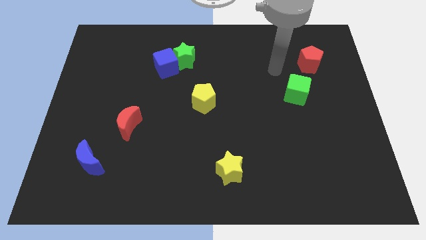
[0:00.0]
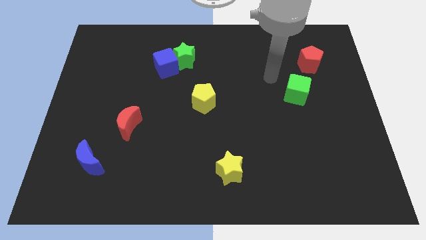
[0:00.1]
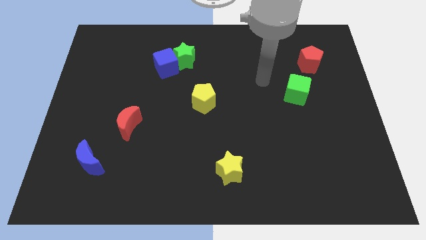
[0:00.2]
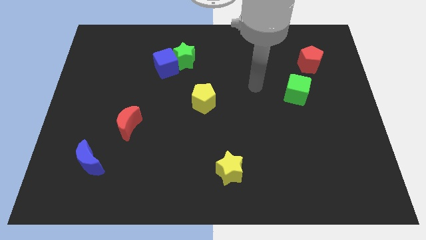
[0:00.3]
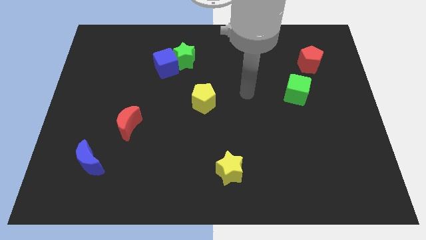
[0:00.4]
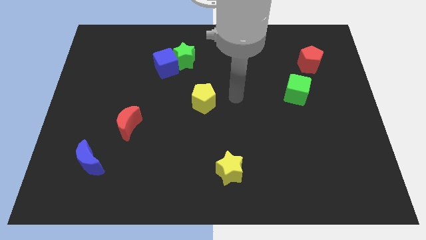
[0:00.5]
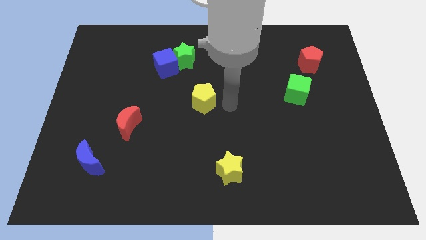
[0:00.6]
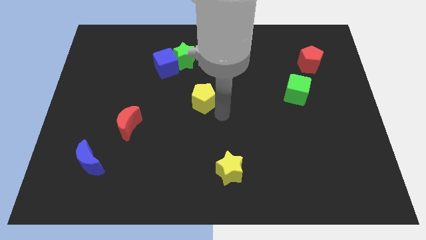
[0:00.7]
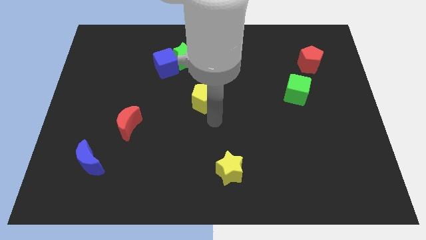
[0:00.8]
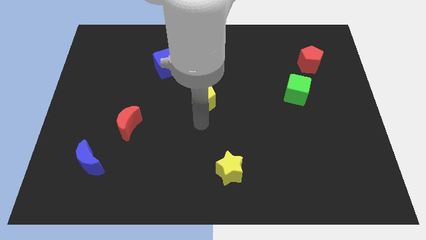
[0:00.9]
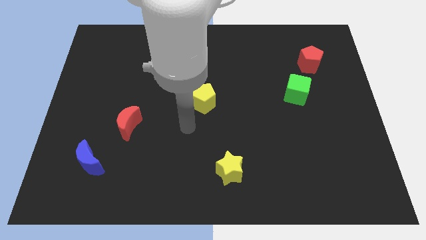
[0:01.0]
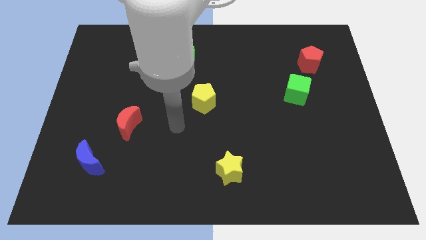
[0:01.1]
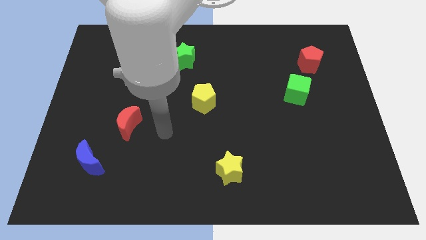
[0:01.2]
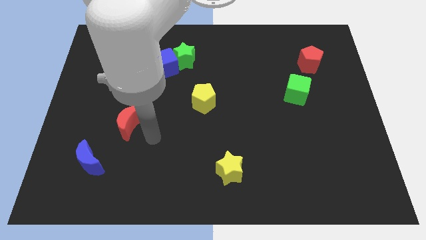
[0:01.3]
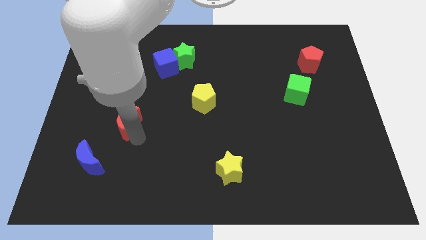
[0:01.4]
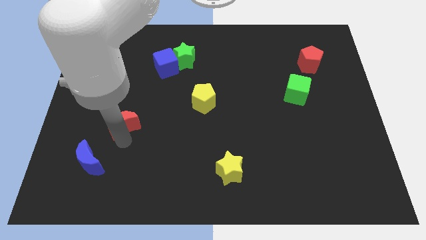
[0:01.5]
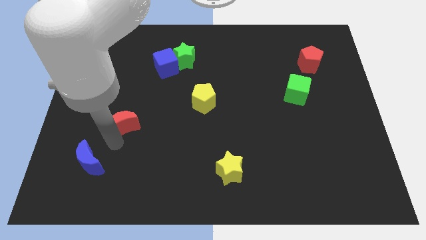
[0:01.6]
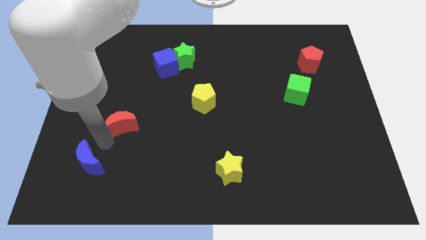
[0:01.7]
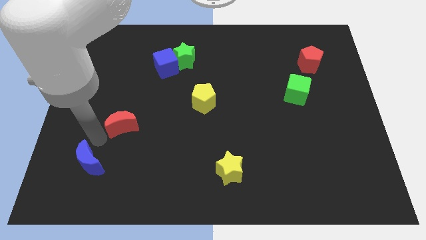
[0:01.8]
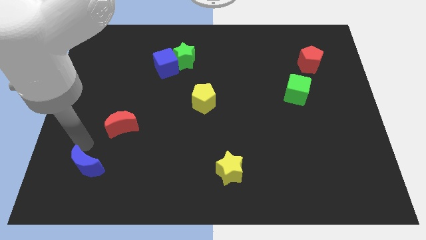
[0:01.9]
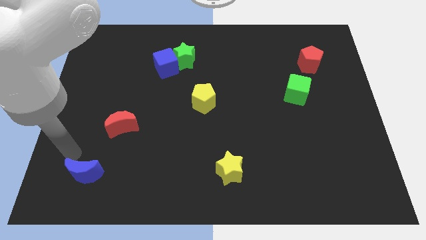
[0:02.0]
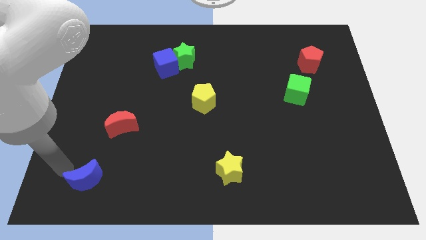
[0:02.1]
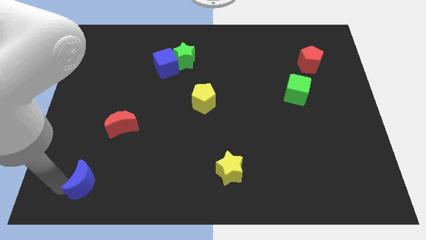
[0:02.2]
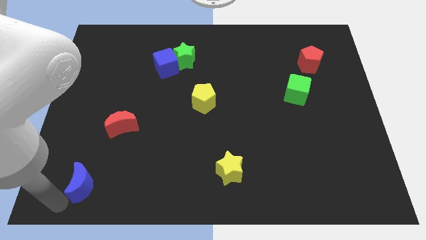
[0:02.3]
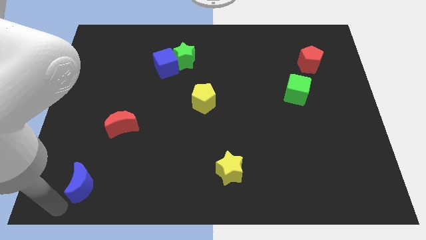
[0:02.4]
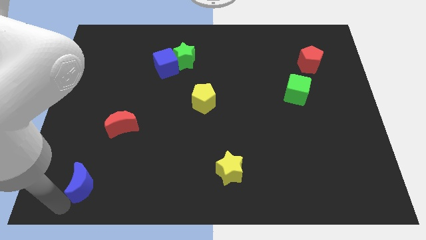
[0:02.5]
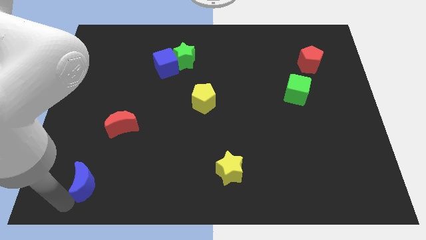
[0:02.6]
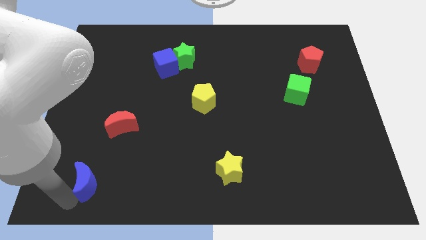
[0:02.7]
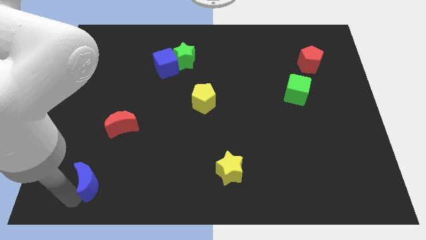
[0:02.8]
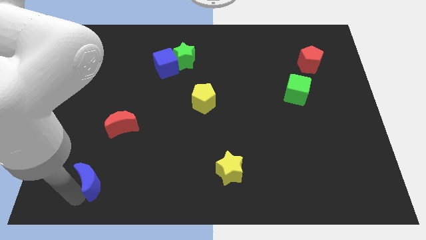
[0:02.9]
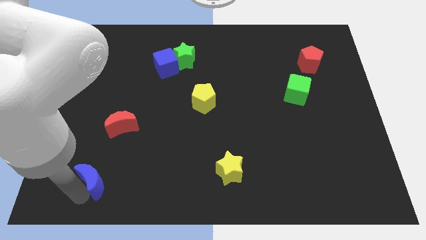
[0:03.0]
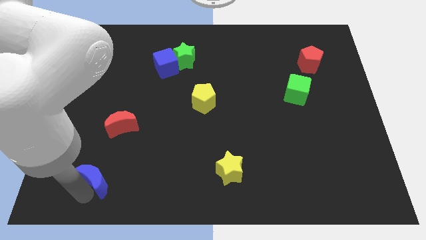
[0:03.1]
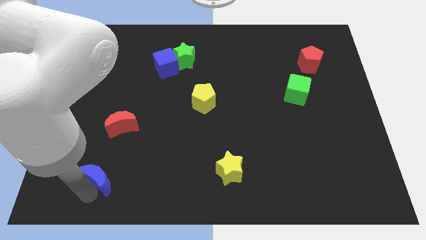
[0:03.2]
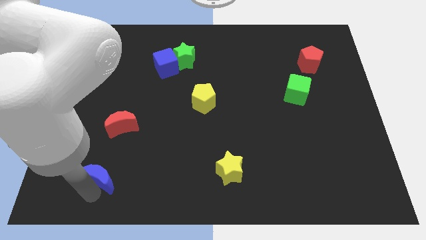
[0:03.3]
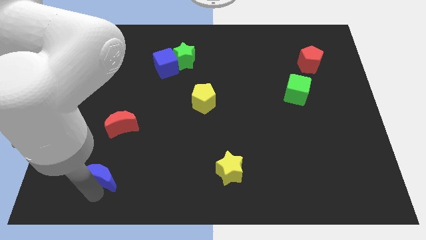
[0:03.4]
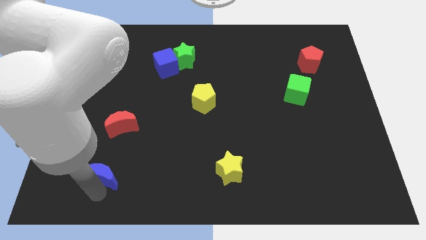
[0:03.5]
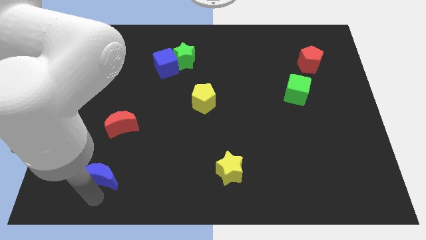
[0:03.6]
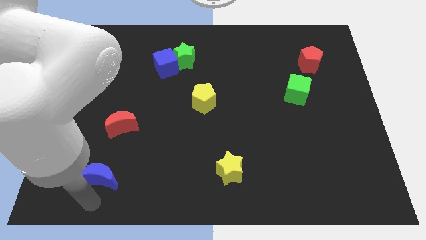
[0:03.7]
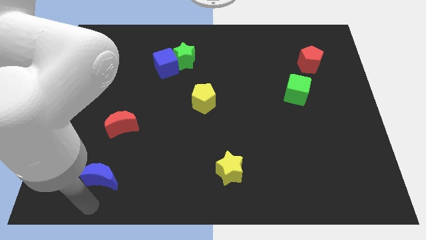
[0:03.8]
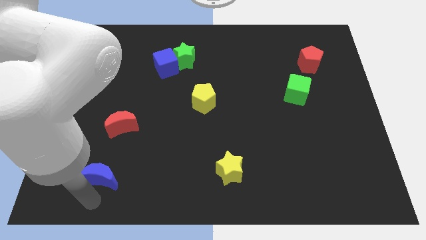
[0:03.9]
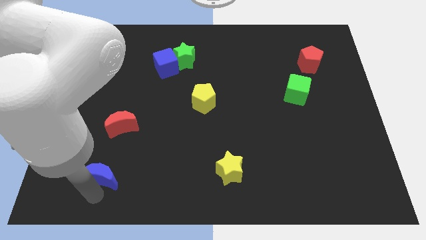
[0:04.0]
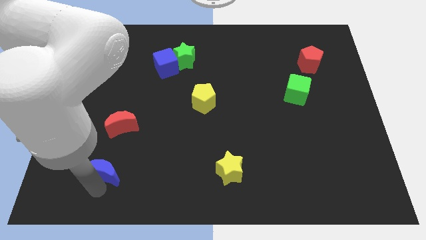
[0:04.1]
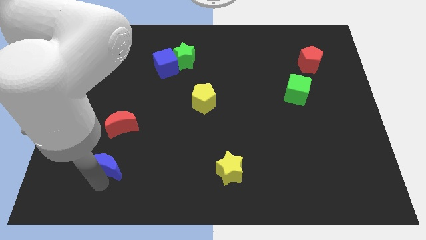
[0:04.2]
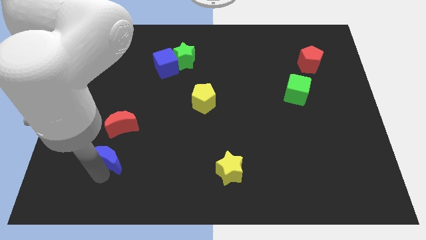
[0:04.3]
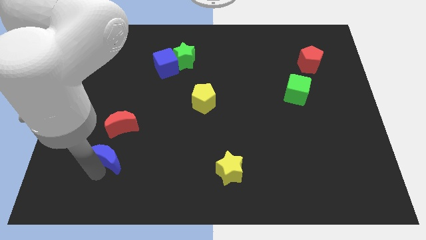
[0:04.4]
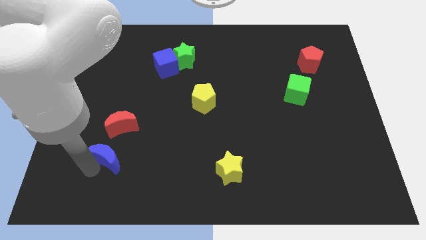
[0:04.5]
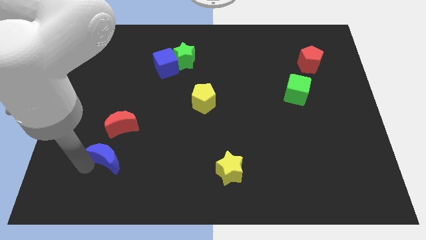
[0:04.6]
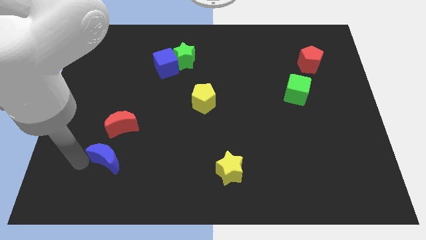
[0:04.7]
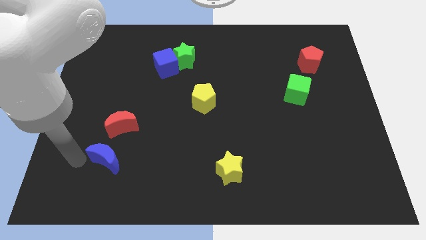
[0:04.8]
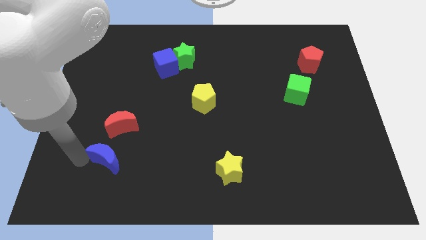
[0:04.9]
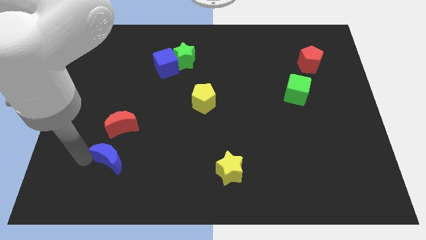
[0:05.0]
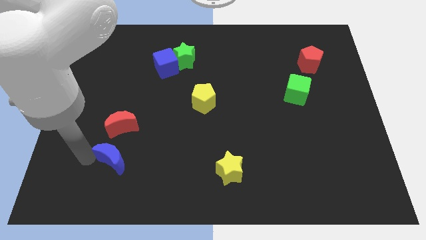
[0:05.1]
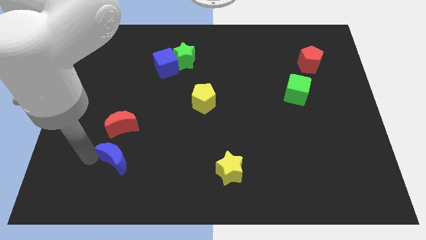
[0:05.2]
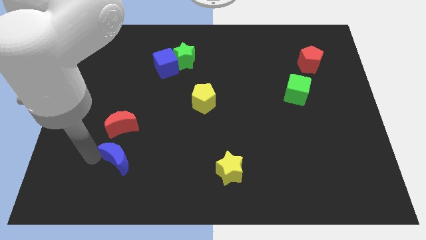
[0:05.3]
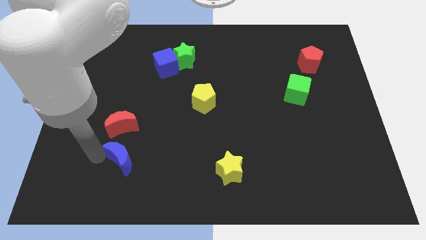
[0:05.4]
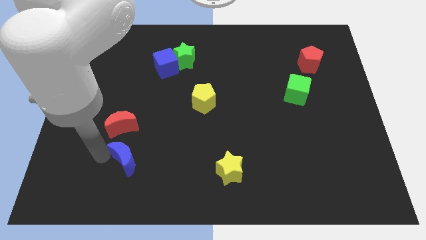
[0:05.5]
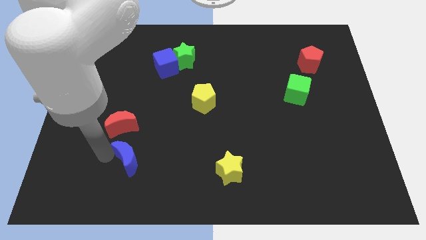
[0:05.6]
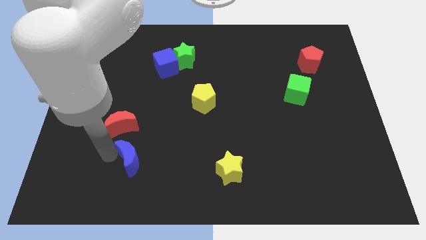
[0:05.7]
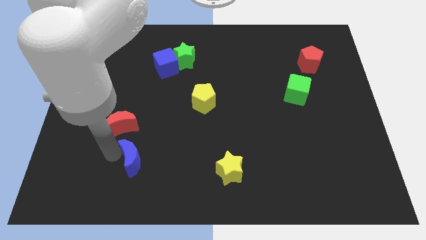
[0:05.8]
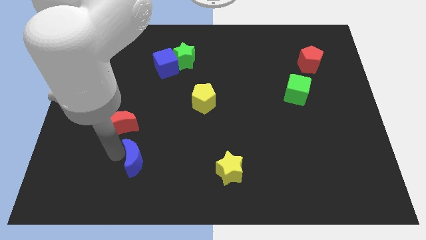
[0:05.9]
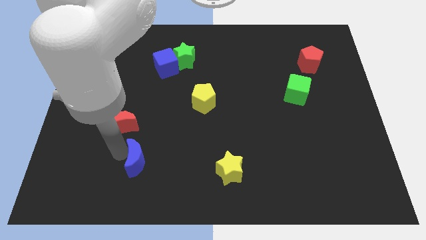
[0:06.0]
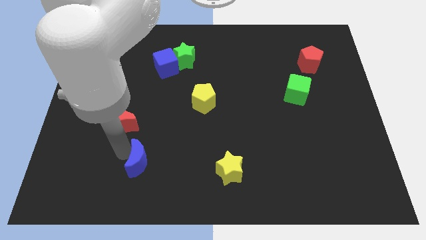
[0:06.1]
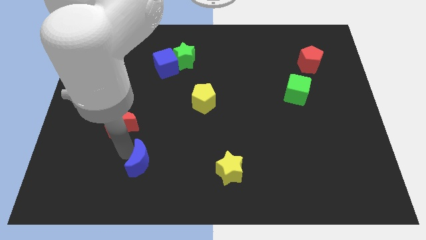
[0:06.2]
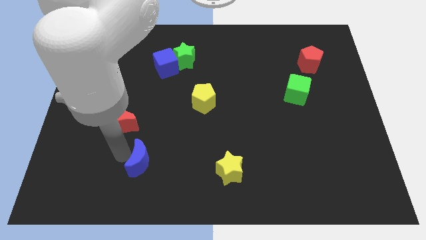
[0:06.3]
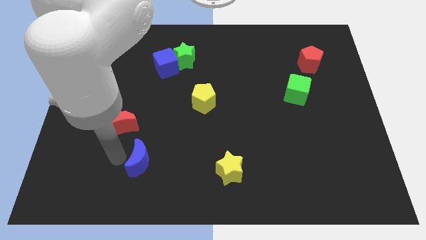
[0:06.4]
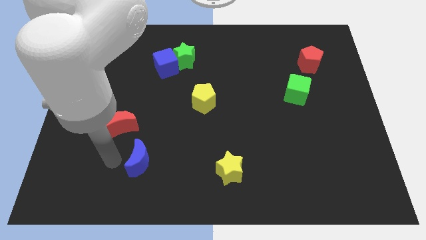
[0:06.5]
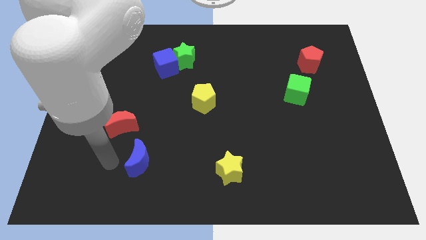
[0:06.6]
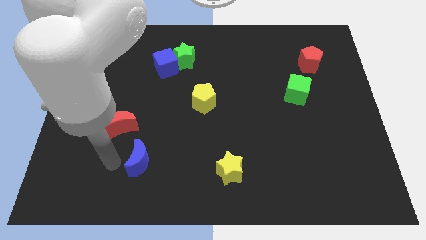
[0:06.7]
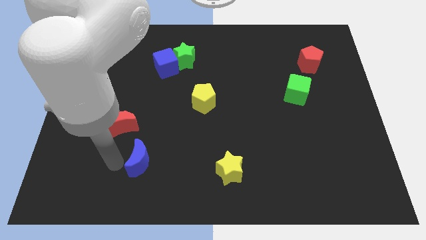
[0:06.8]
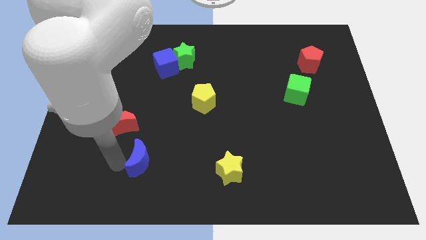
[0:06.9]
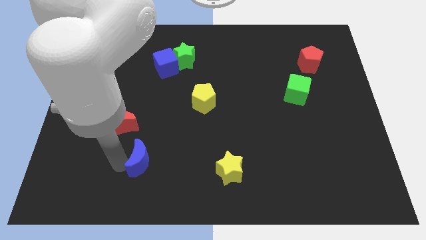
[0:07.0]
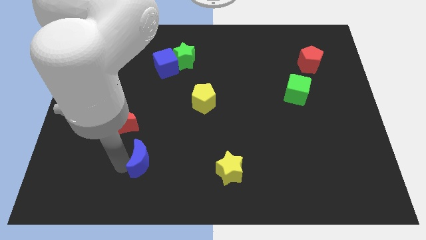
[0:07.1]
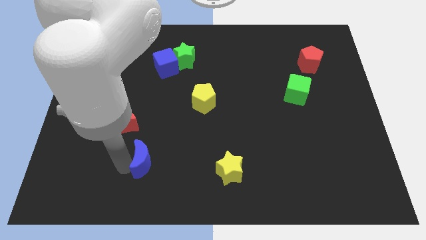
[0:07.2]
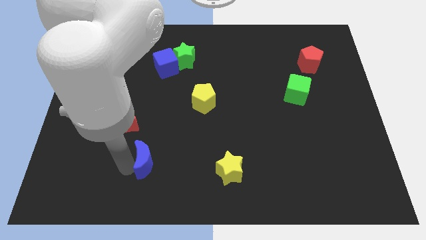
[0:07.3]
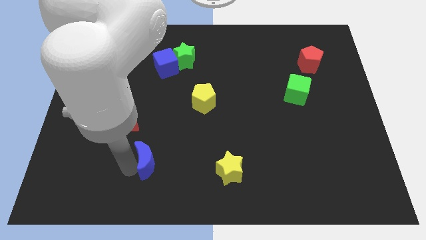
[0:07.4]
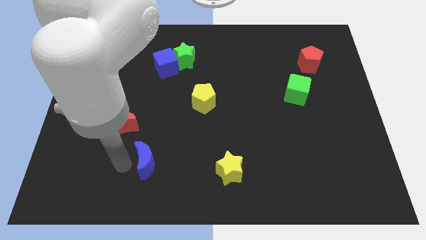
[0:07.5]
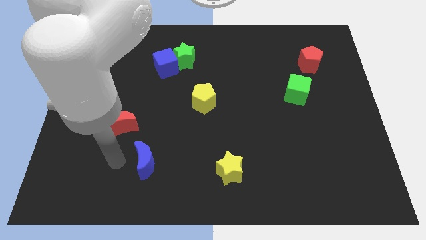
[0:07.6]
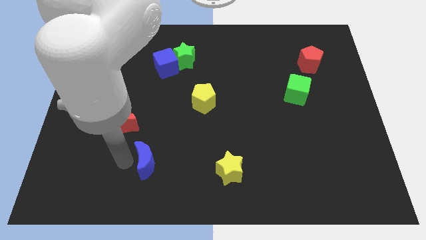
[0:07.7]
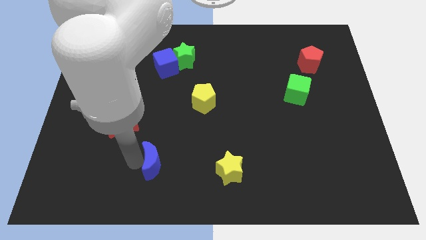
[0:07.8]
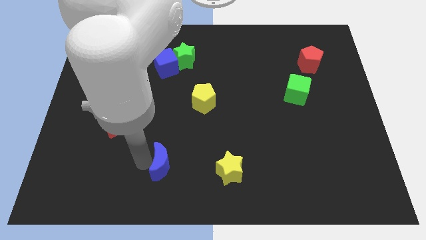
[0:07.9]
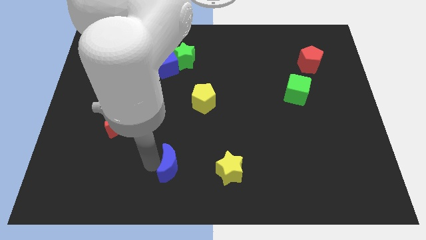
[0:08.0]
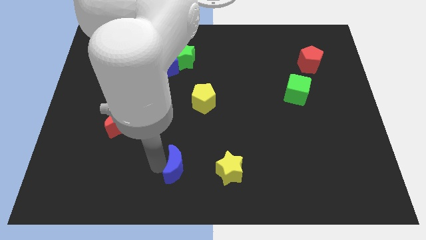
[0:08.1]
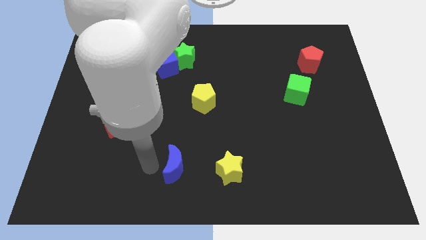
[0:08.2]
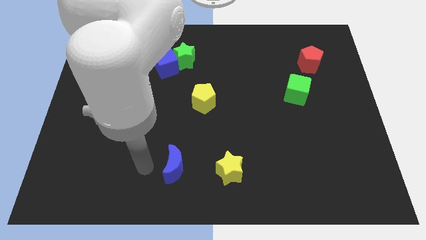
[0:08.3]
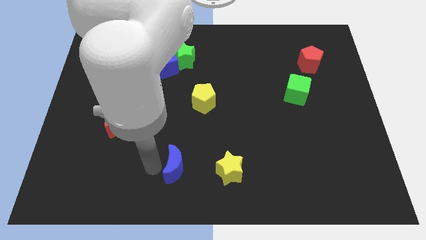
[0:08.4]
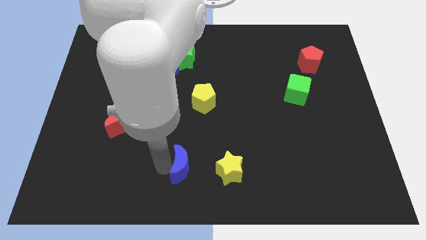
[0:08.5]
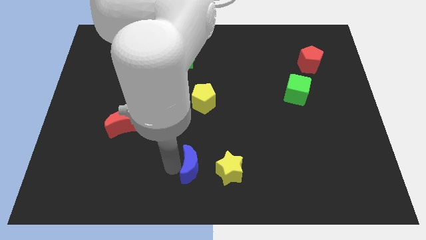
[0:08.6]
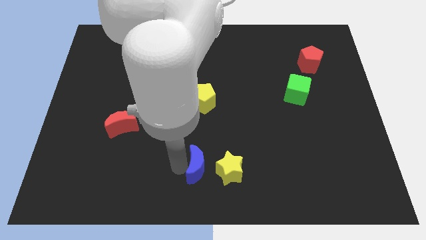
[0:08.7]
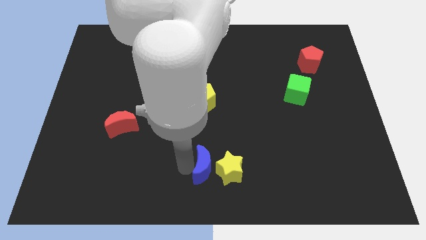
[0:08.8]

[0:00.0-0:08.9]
move the blue moon towards the yellow star
